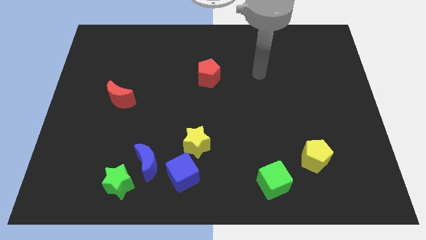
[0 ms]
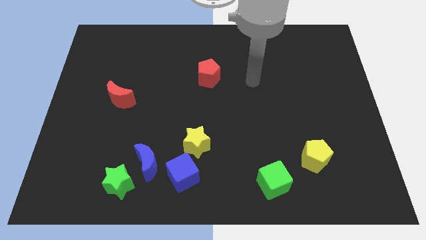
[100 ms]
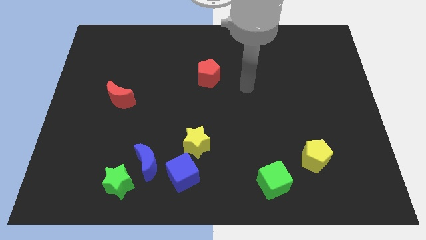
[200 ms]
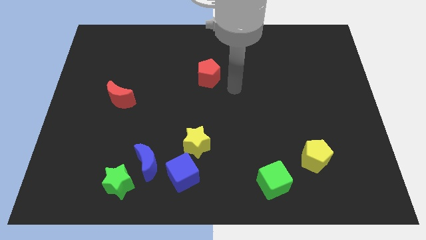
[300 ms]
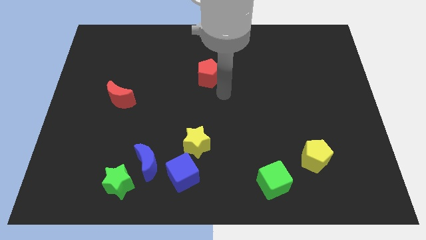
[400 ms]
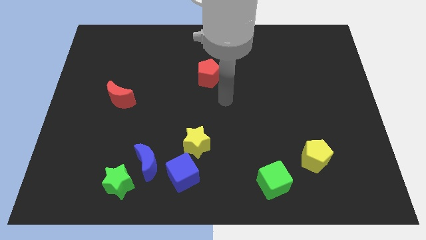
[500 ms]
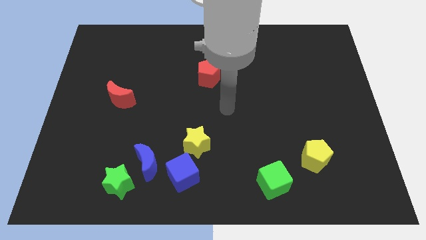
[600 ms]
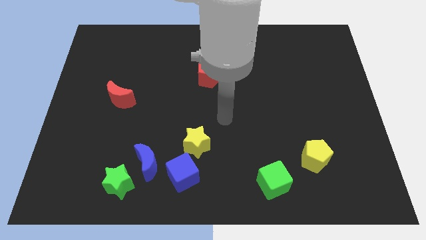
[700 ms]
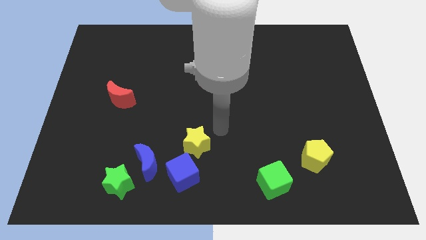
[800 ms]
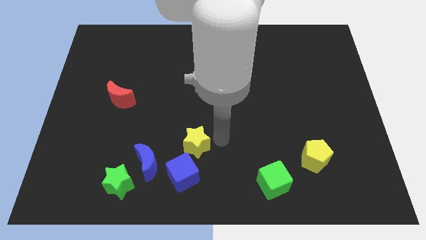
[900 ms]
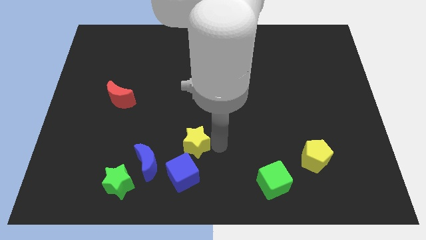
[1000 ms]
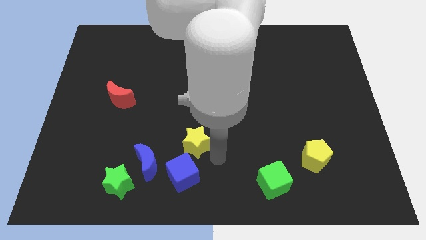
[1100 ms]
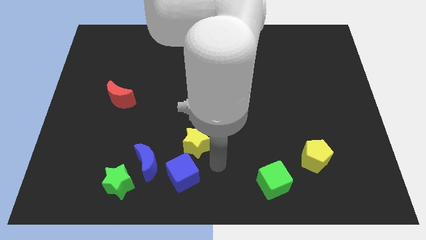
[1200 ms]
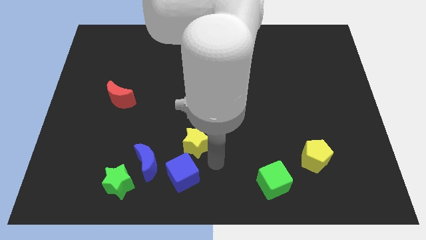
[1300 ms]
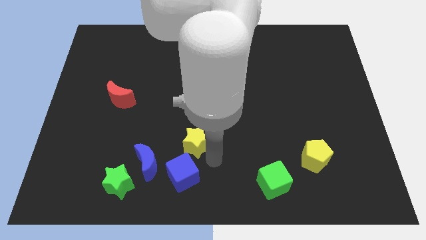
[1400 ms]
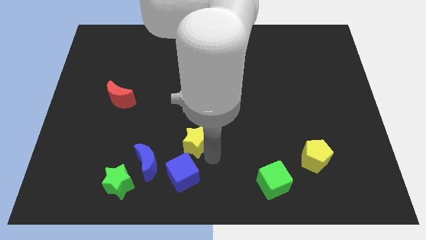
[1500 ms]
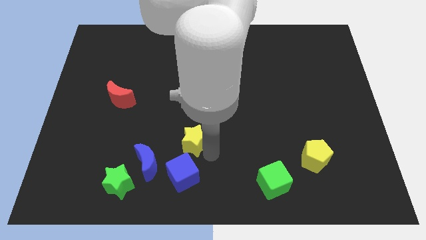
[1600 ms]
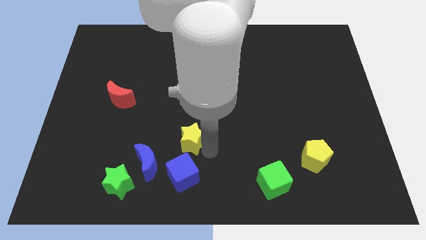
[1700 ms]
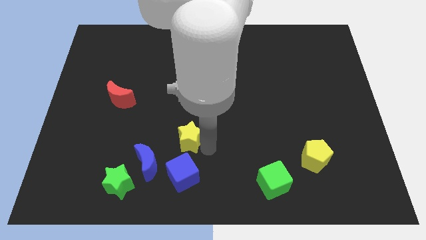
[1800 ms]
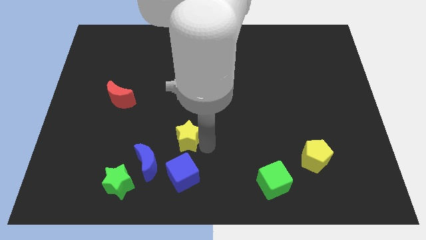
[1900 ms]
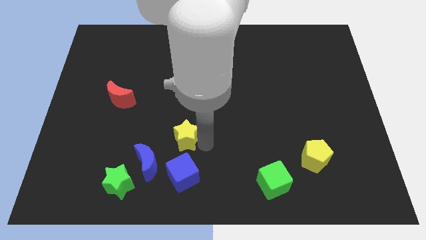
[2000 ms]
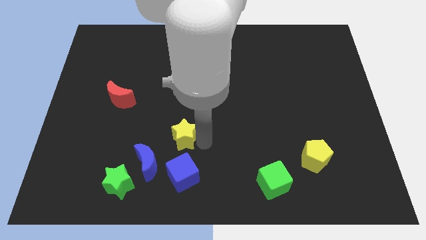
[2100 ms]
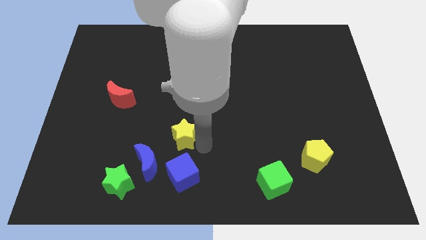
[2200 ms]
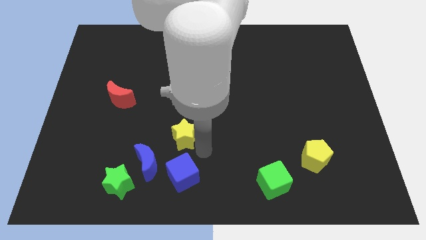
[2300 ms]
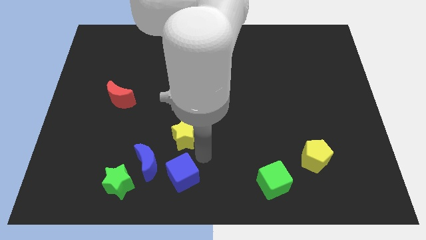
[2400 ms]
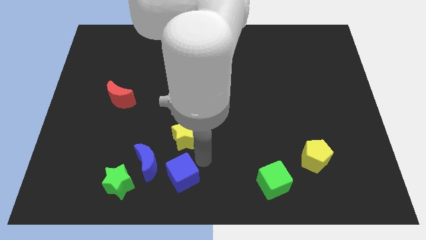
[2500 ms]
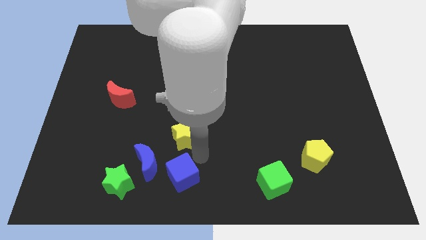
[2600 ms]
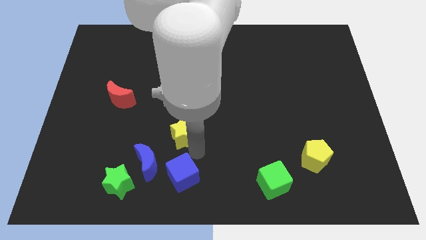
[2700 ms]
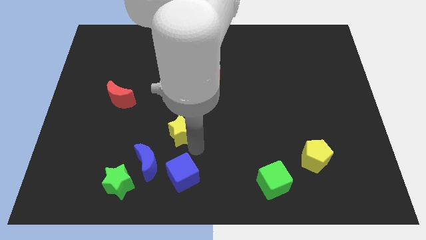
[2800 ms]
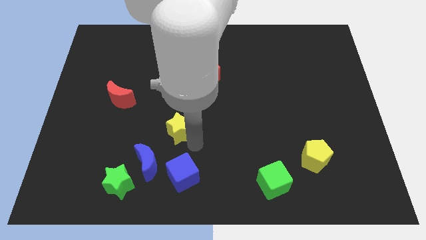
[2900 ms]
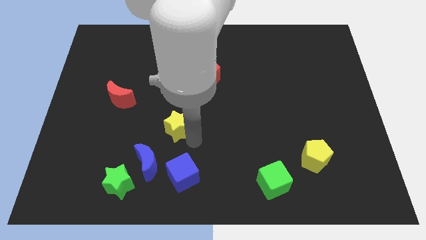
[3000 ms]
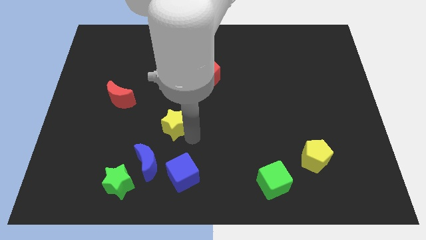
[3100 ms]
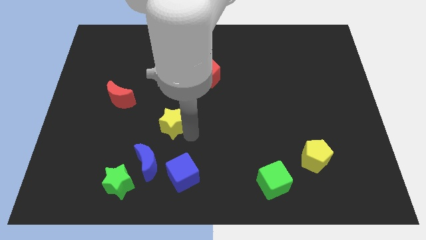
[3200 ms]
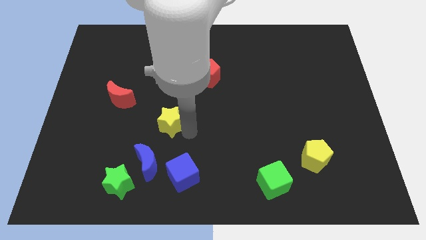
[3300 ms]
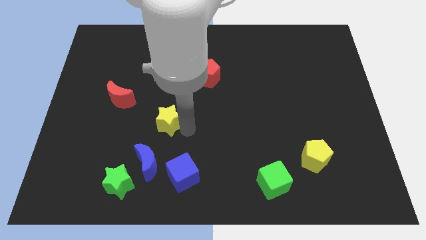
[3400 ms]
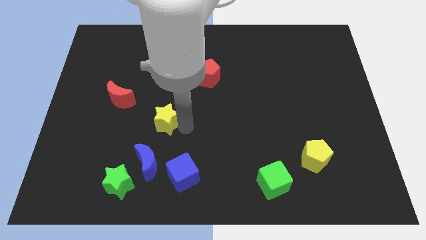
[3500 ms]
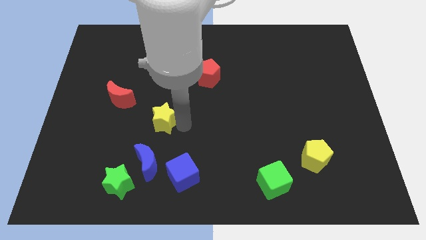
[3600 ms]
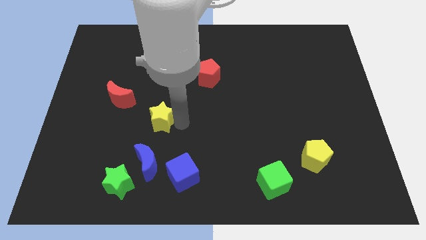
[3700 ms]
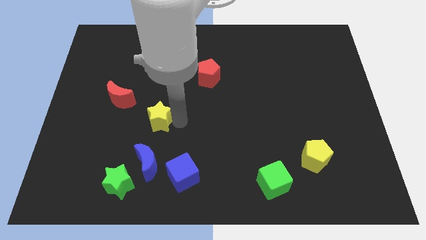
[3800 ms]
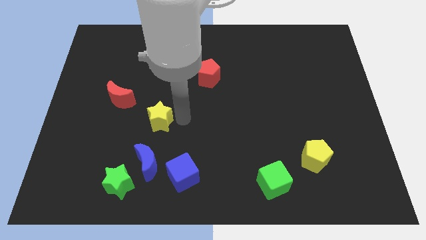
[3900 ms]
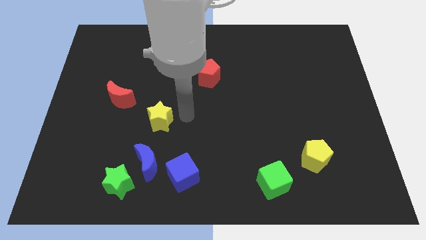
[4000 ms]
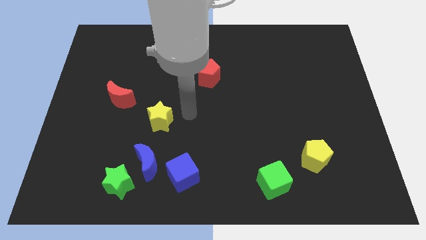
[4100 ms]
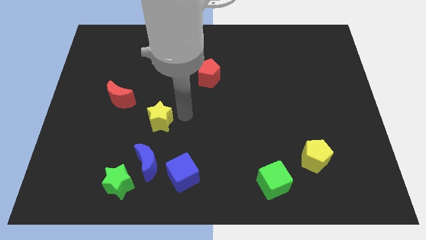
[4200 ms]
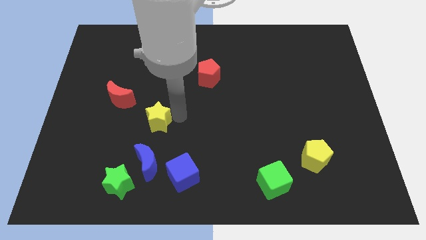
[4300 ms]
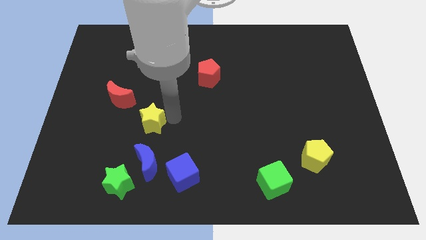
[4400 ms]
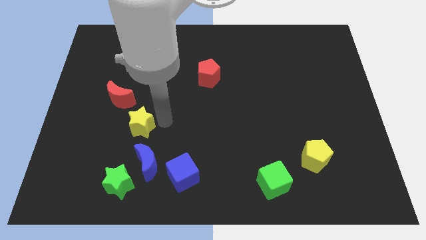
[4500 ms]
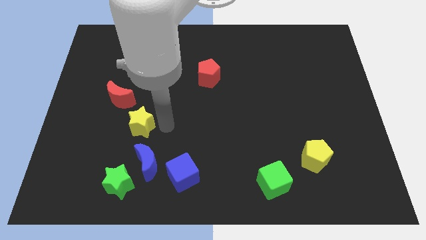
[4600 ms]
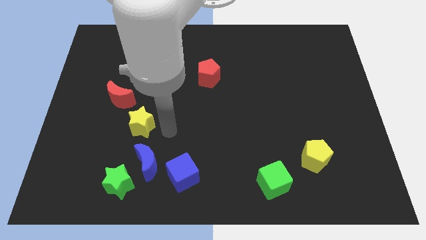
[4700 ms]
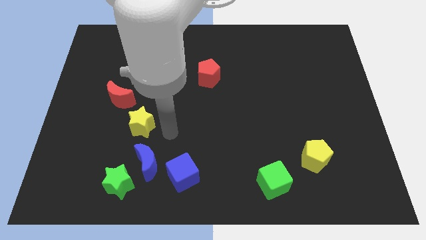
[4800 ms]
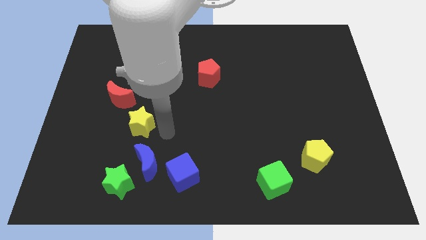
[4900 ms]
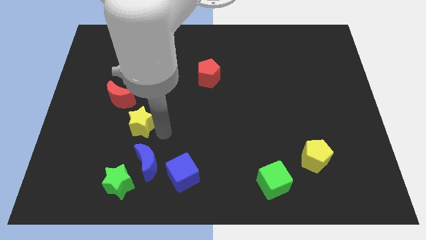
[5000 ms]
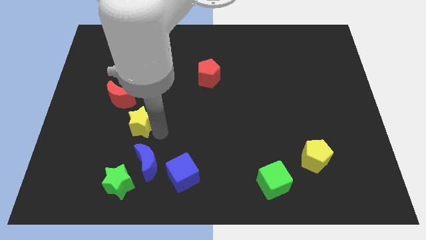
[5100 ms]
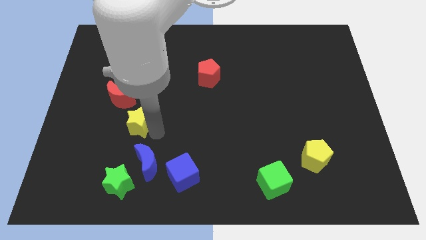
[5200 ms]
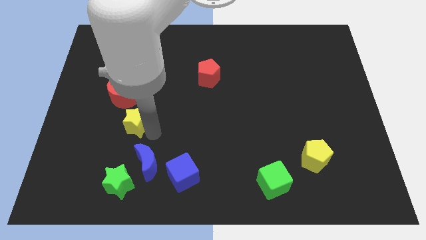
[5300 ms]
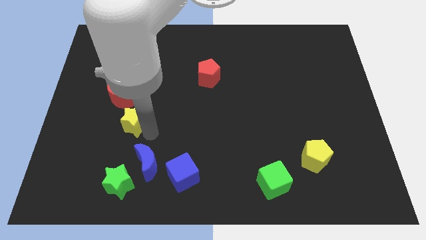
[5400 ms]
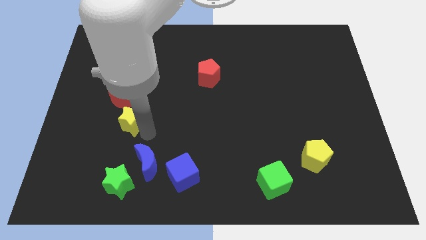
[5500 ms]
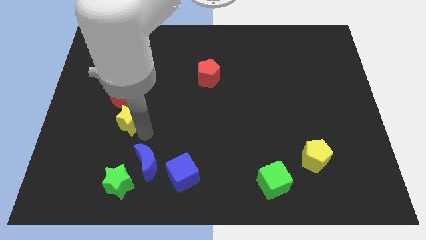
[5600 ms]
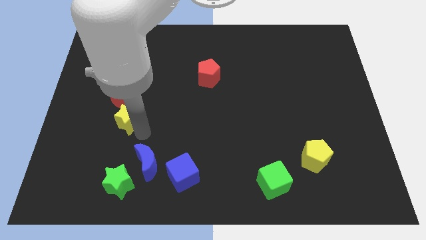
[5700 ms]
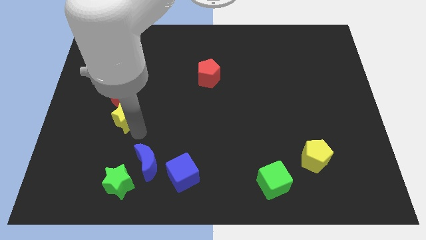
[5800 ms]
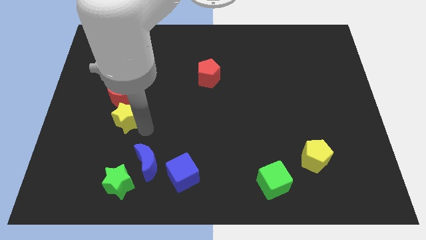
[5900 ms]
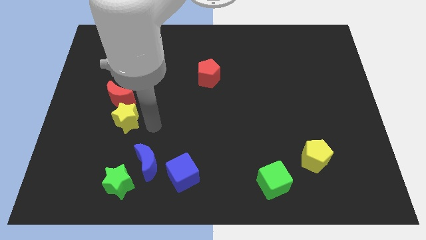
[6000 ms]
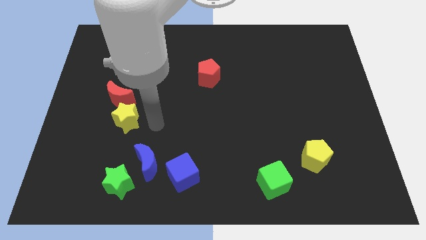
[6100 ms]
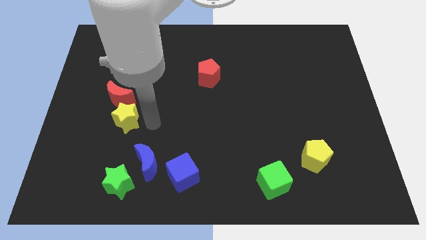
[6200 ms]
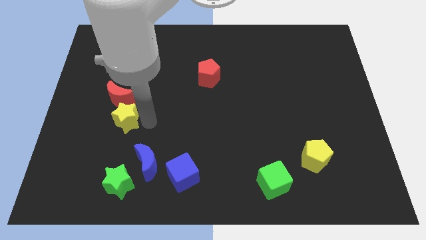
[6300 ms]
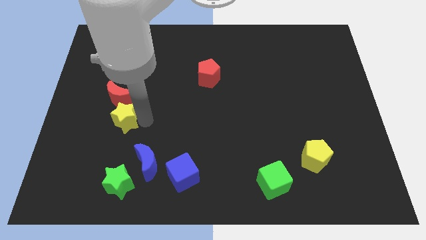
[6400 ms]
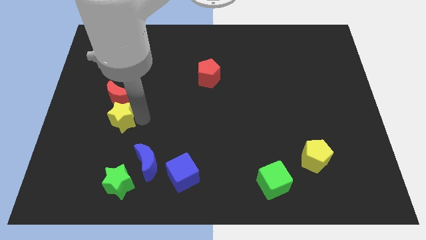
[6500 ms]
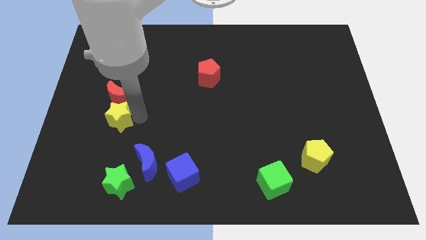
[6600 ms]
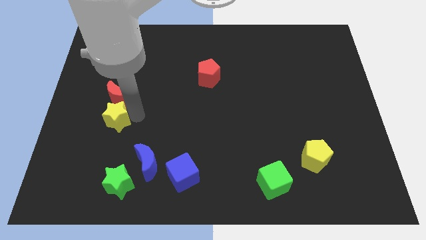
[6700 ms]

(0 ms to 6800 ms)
push the yellow star diagonally down and to the left of the red moon

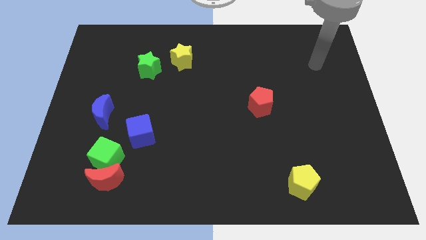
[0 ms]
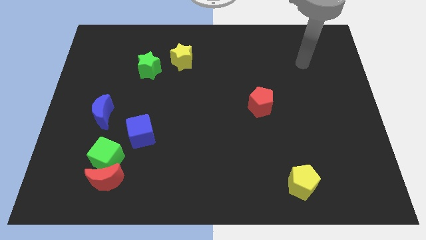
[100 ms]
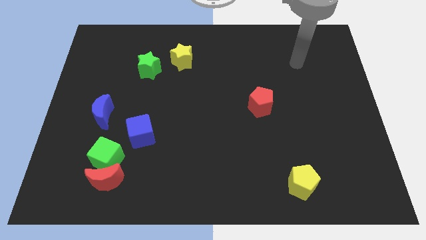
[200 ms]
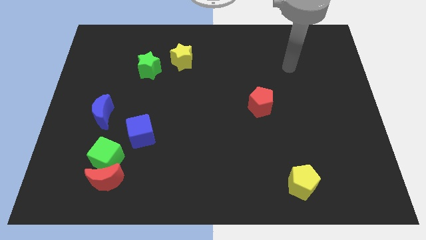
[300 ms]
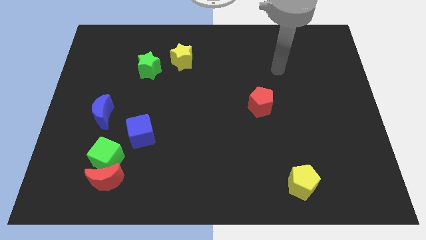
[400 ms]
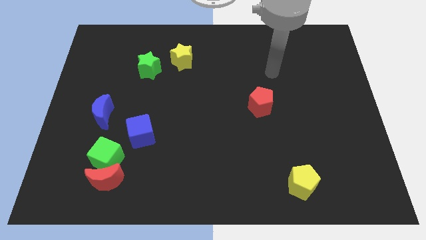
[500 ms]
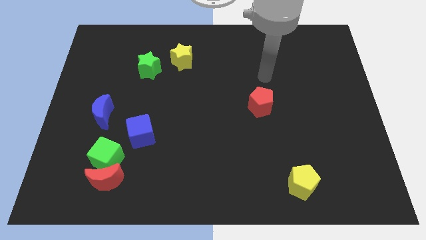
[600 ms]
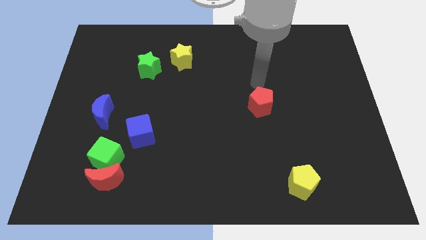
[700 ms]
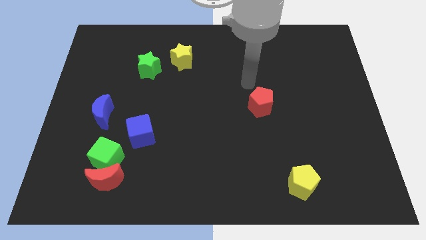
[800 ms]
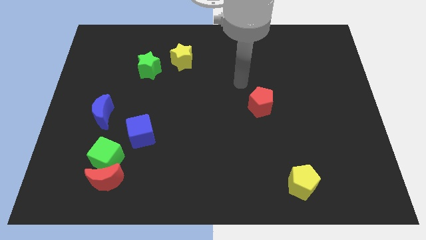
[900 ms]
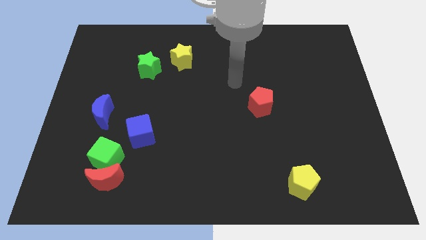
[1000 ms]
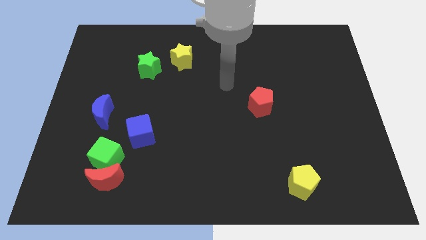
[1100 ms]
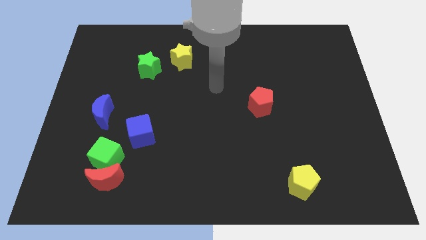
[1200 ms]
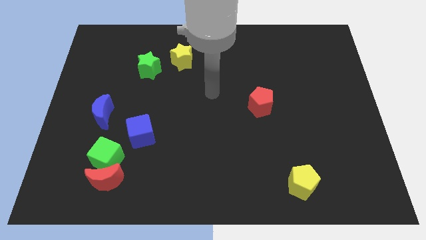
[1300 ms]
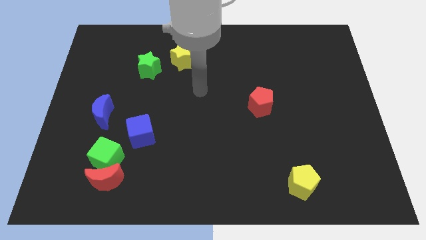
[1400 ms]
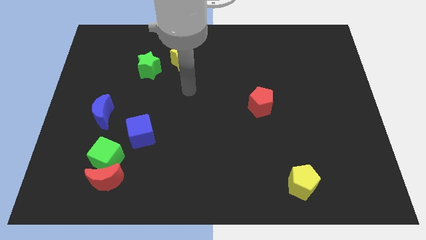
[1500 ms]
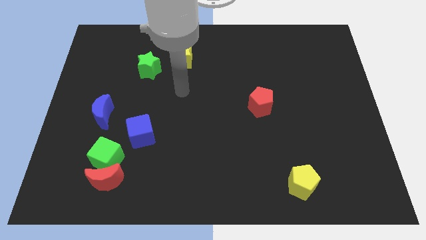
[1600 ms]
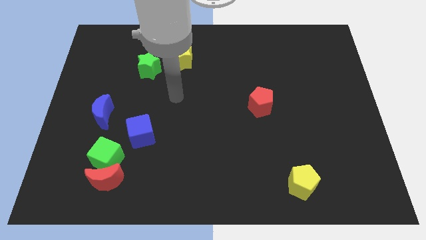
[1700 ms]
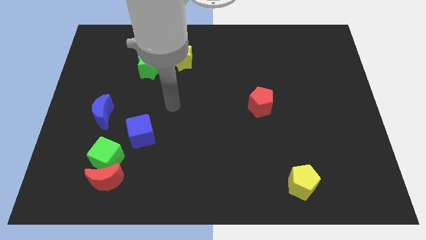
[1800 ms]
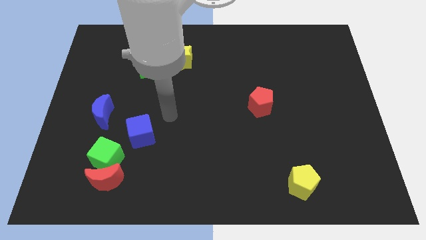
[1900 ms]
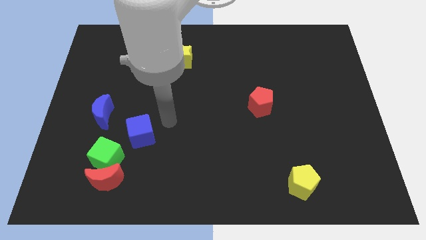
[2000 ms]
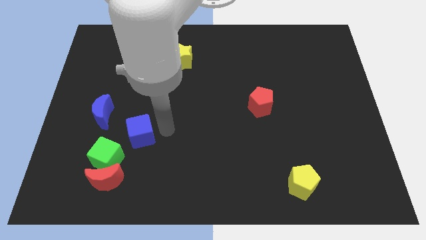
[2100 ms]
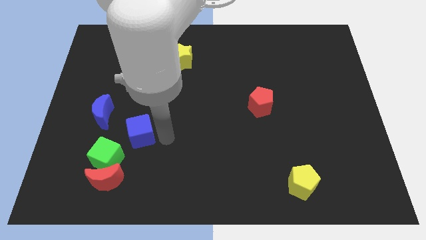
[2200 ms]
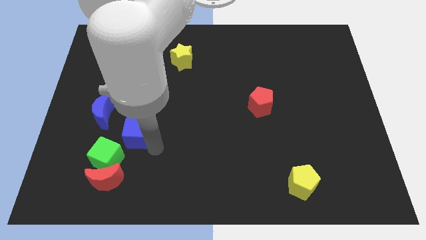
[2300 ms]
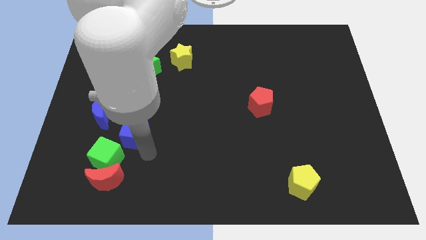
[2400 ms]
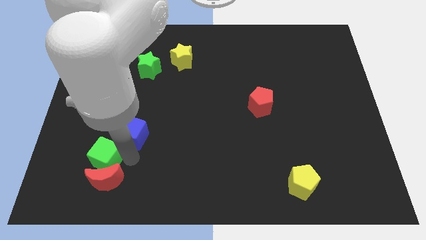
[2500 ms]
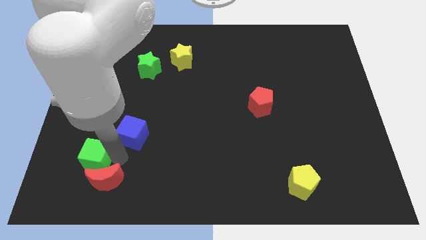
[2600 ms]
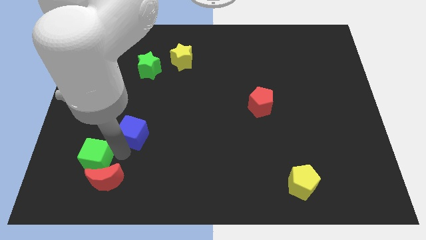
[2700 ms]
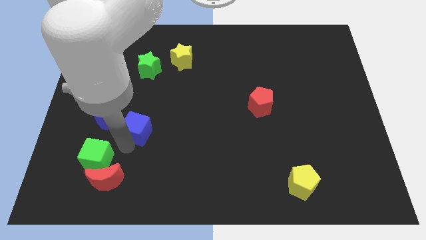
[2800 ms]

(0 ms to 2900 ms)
push the blue cube to the right side of the blue moon
